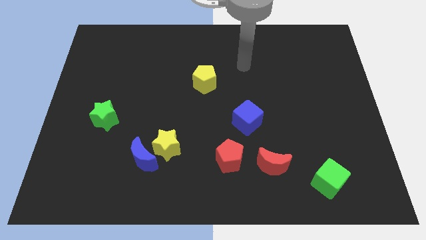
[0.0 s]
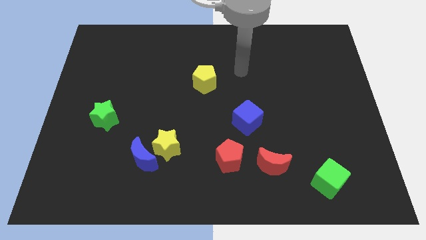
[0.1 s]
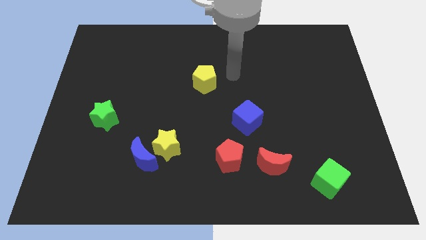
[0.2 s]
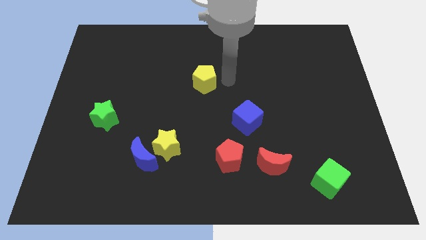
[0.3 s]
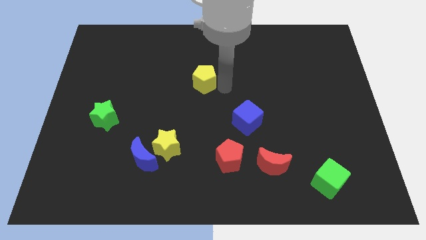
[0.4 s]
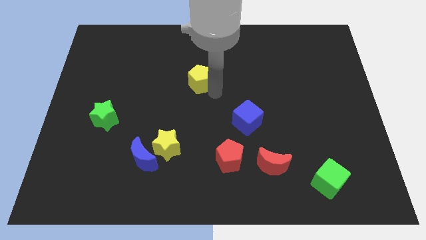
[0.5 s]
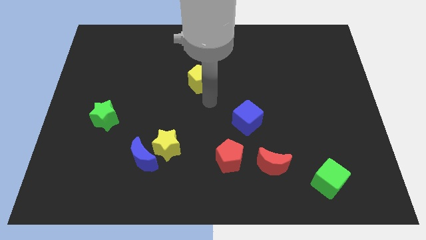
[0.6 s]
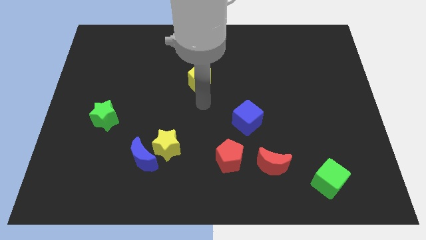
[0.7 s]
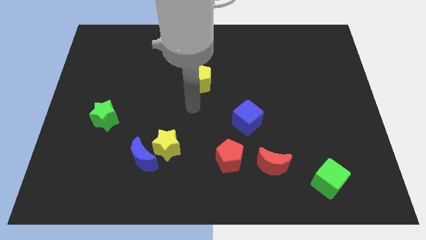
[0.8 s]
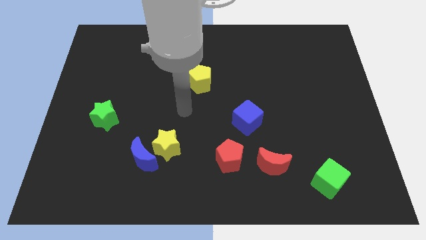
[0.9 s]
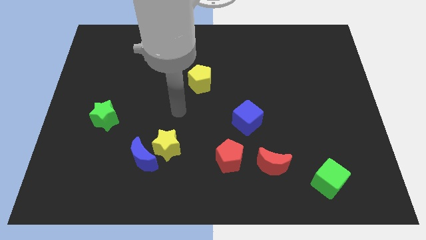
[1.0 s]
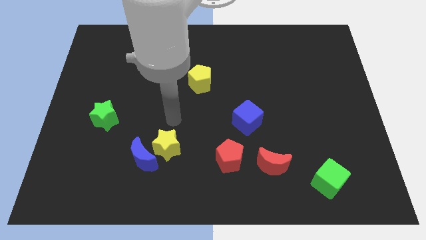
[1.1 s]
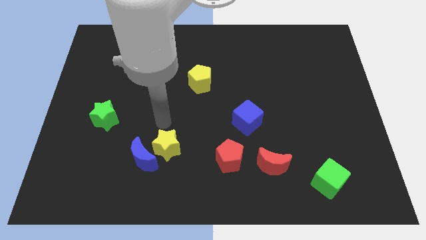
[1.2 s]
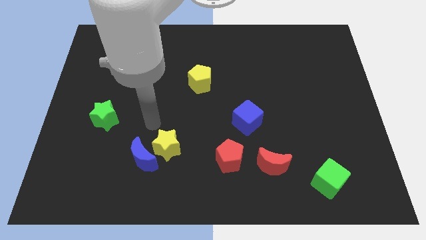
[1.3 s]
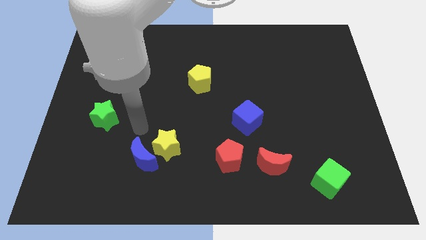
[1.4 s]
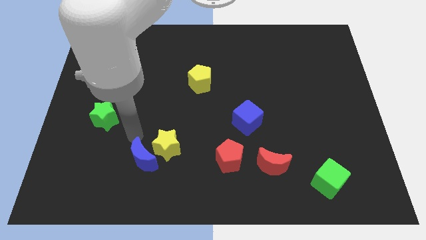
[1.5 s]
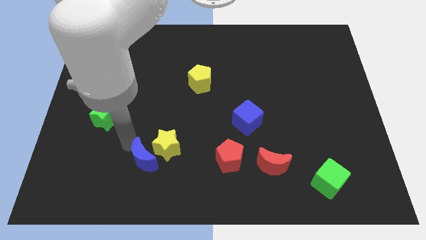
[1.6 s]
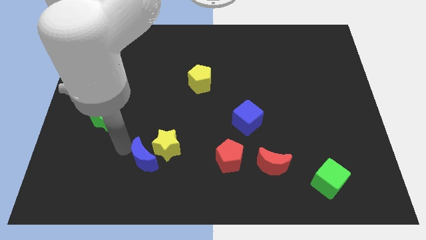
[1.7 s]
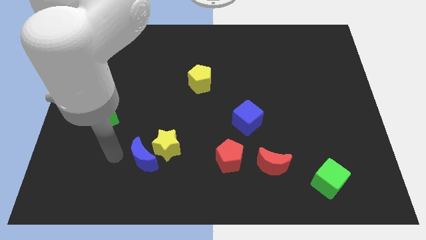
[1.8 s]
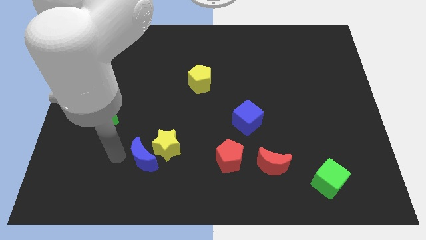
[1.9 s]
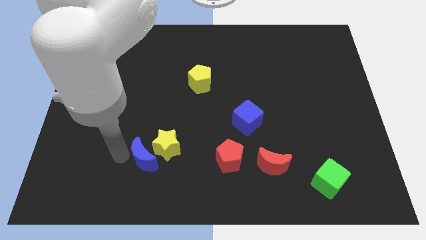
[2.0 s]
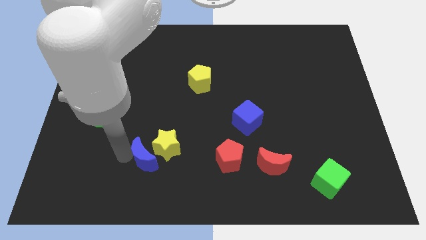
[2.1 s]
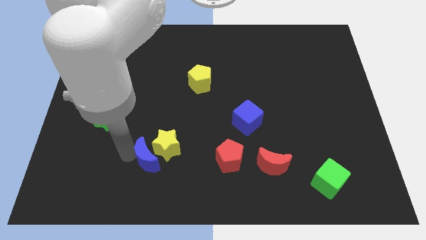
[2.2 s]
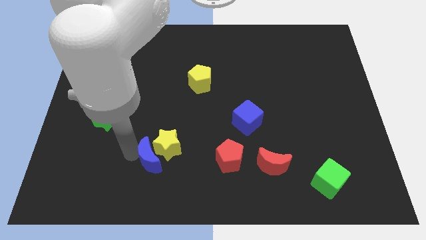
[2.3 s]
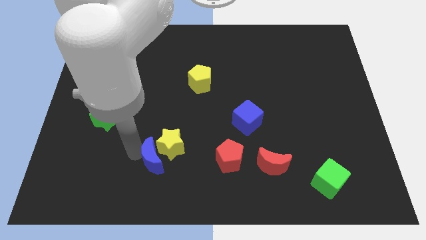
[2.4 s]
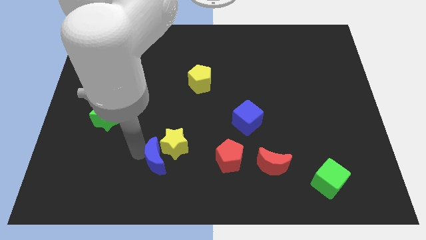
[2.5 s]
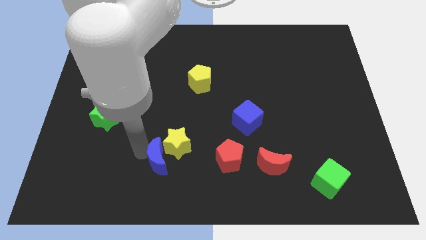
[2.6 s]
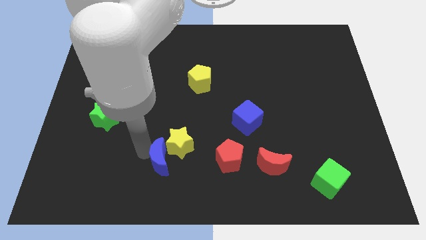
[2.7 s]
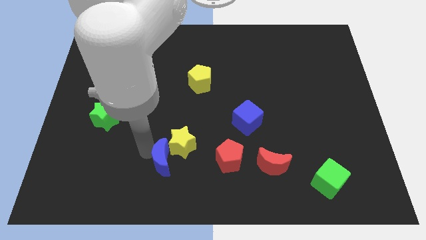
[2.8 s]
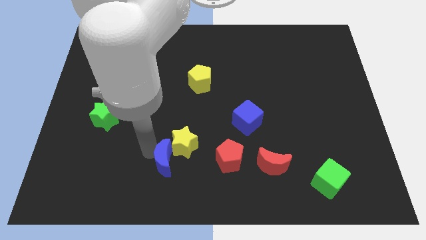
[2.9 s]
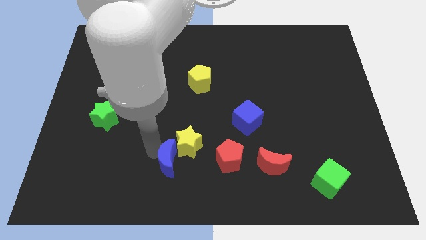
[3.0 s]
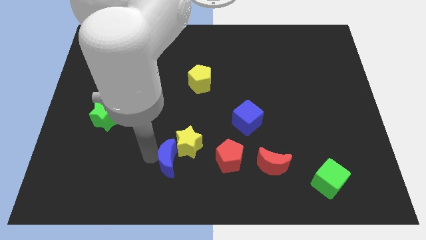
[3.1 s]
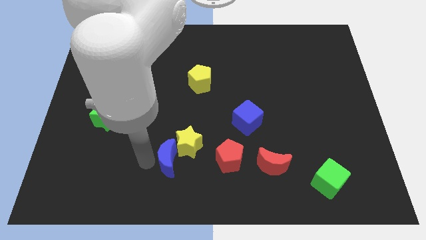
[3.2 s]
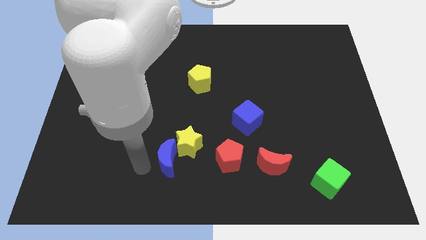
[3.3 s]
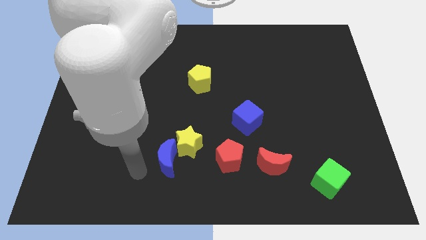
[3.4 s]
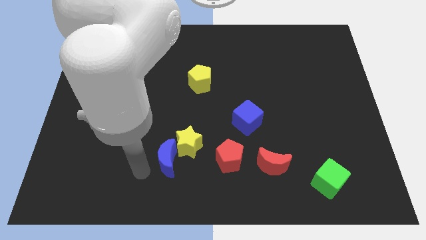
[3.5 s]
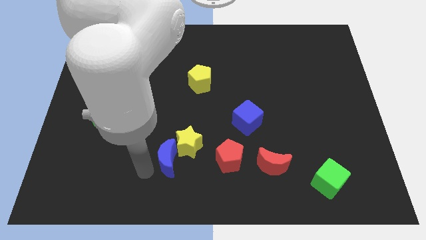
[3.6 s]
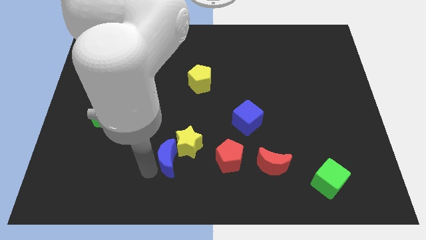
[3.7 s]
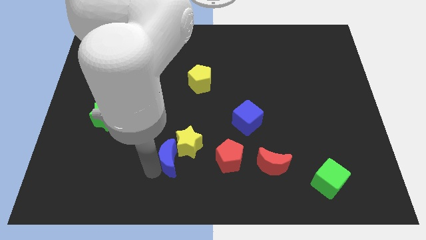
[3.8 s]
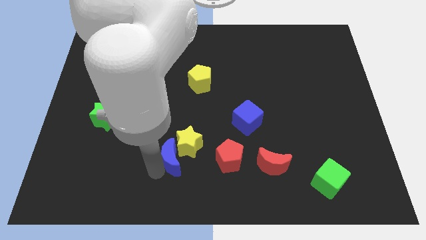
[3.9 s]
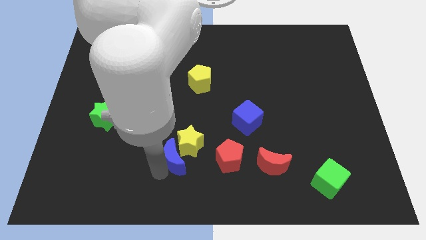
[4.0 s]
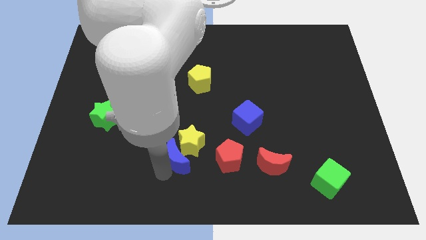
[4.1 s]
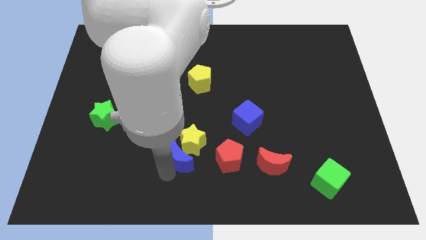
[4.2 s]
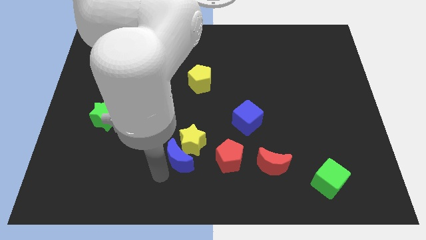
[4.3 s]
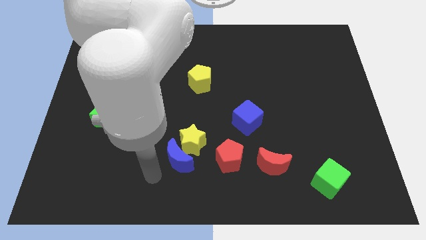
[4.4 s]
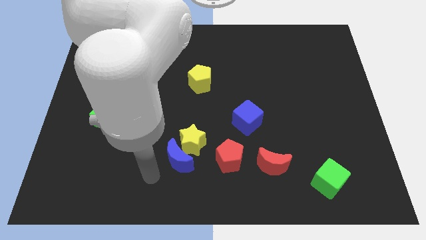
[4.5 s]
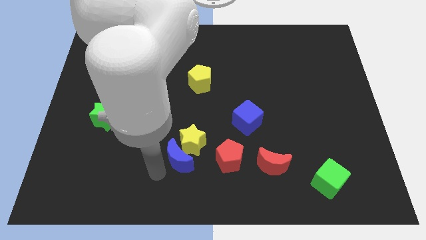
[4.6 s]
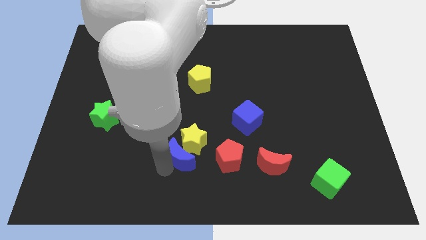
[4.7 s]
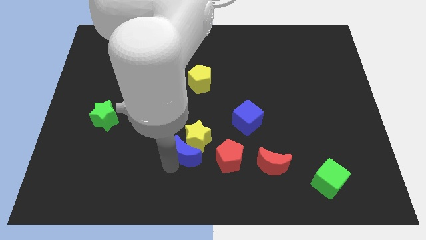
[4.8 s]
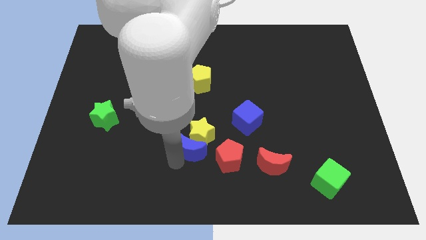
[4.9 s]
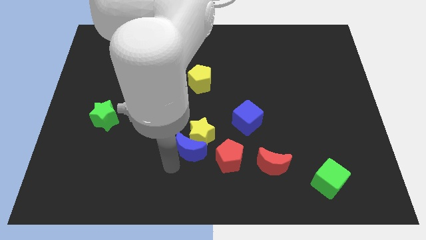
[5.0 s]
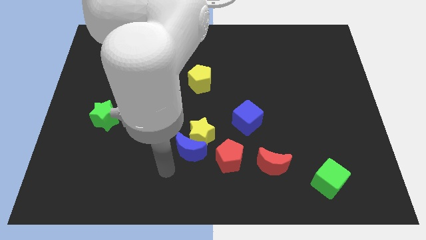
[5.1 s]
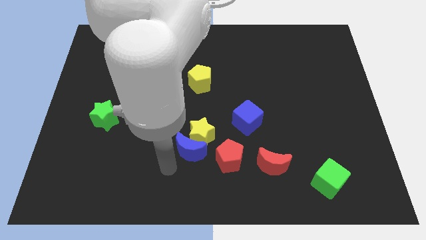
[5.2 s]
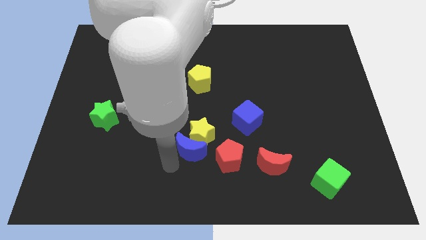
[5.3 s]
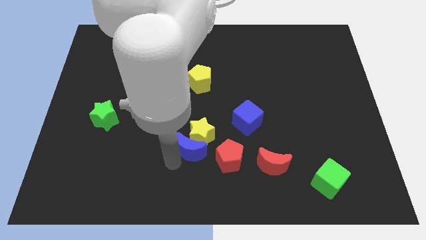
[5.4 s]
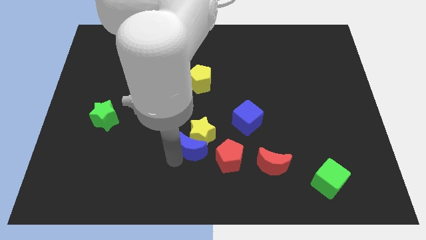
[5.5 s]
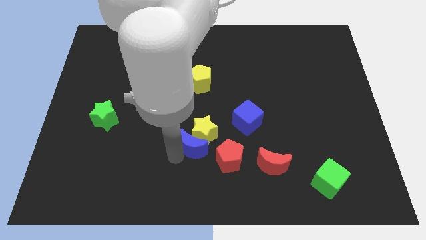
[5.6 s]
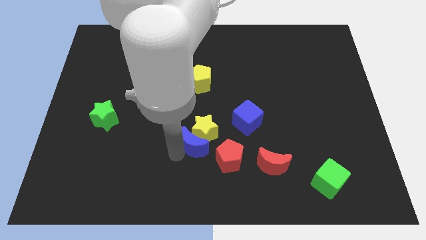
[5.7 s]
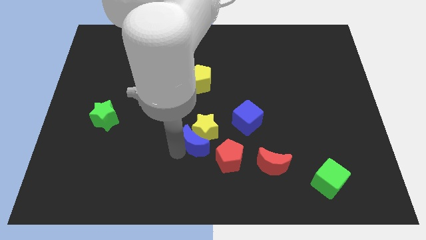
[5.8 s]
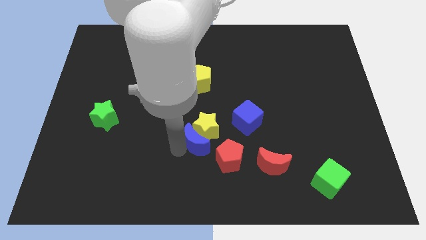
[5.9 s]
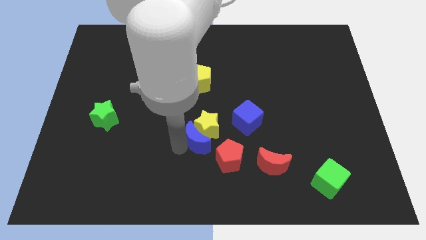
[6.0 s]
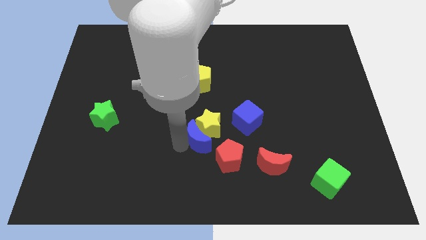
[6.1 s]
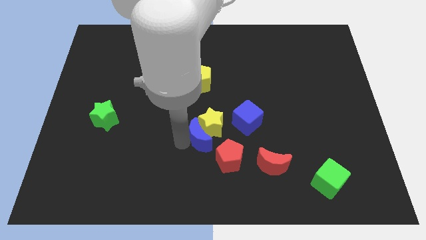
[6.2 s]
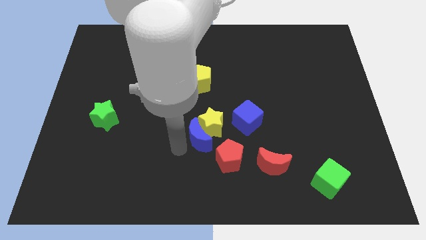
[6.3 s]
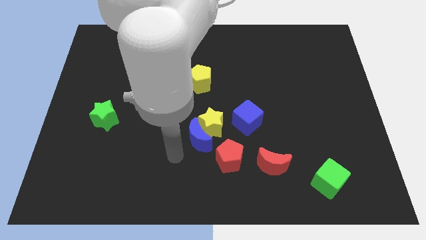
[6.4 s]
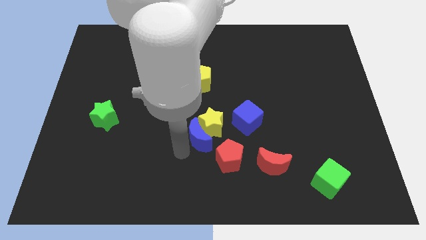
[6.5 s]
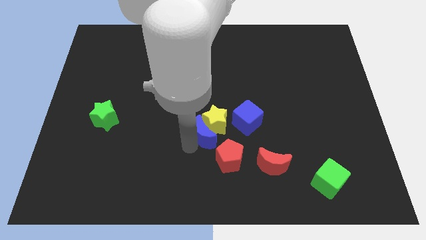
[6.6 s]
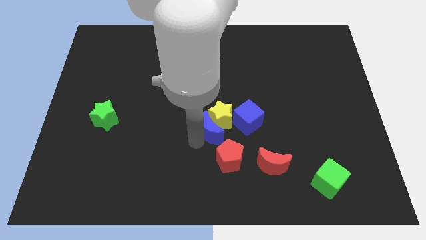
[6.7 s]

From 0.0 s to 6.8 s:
put the blue moon above the red pentagon
